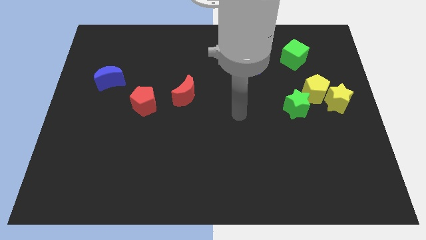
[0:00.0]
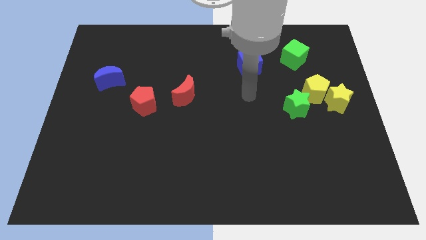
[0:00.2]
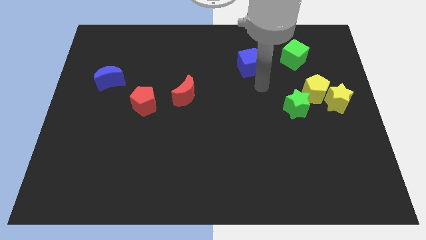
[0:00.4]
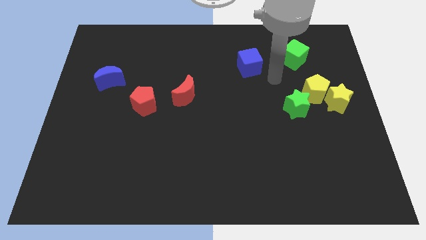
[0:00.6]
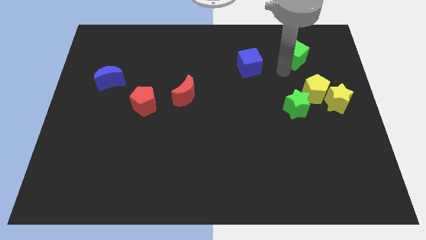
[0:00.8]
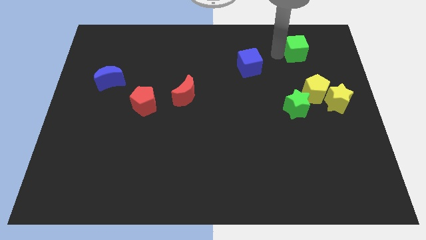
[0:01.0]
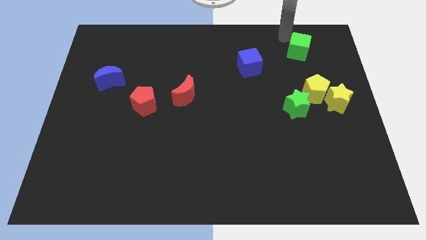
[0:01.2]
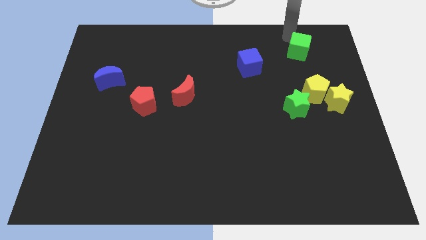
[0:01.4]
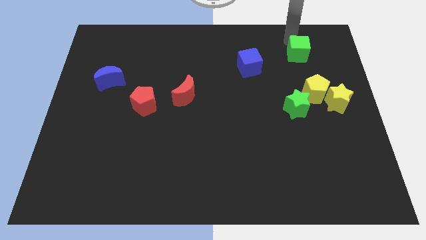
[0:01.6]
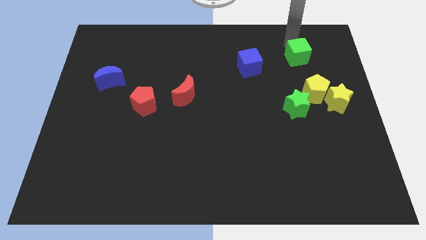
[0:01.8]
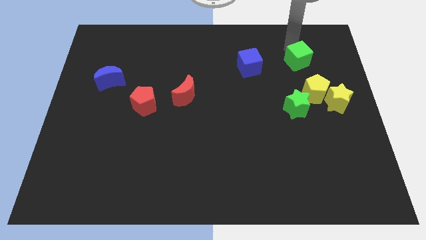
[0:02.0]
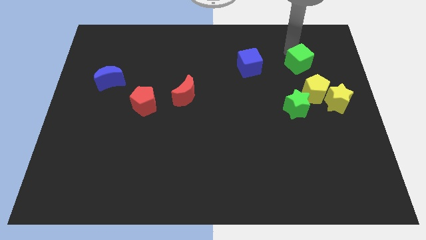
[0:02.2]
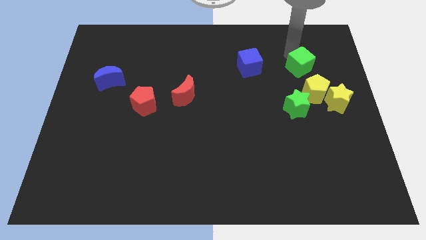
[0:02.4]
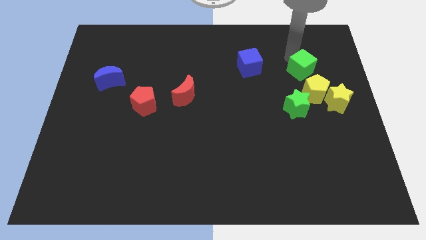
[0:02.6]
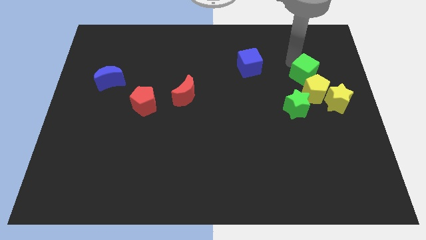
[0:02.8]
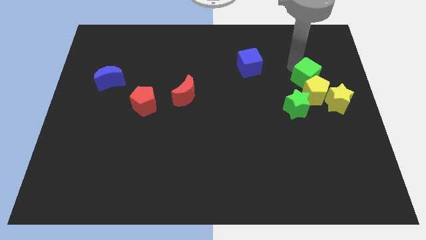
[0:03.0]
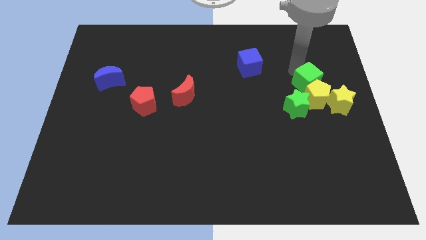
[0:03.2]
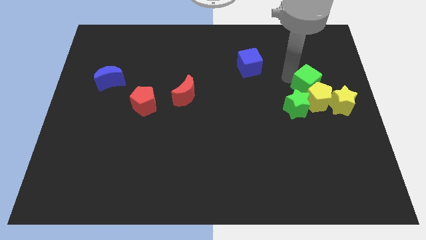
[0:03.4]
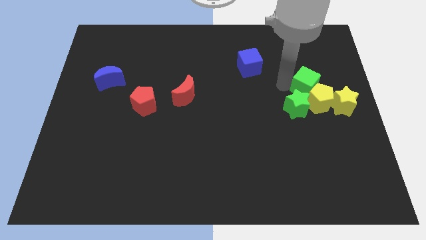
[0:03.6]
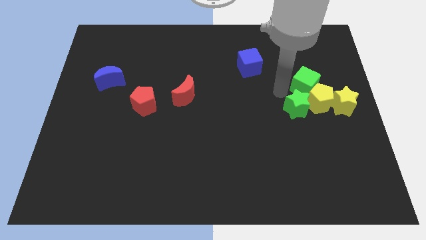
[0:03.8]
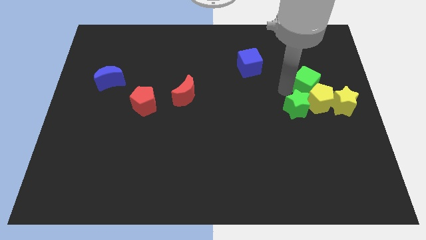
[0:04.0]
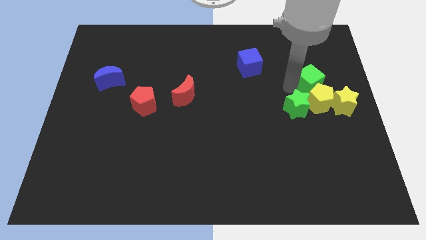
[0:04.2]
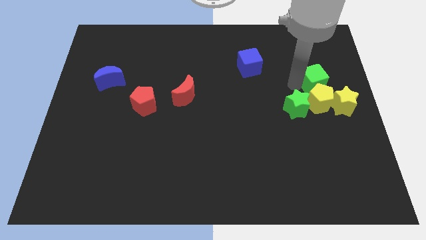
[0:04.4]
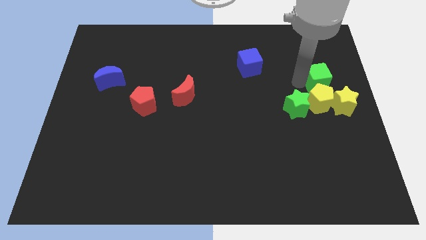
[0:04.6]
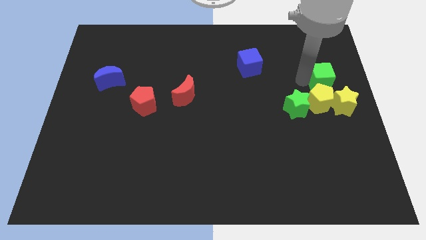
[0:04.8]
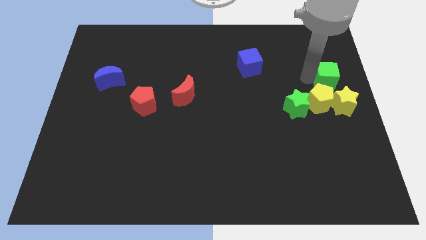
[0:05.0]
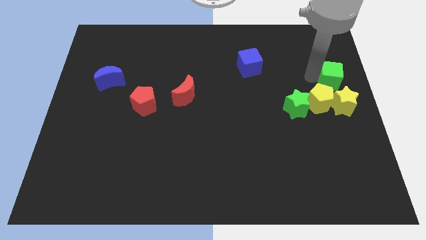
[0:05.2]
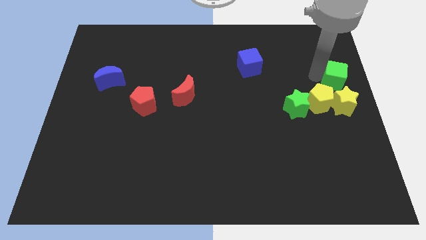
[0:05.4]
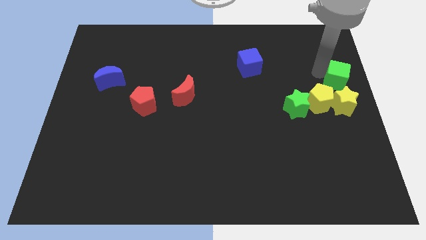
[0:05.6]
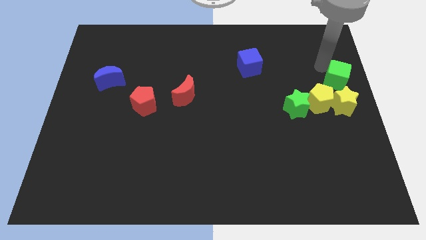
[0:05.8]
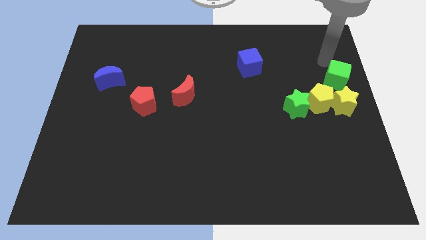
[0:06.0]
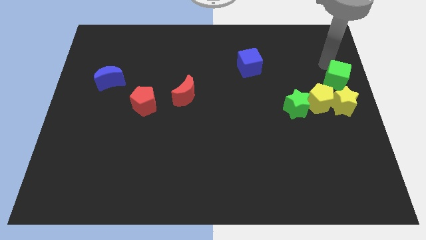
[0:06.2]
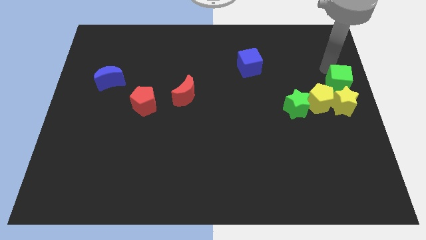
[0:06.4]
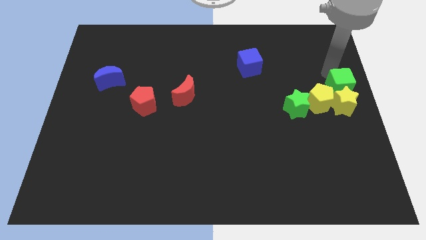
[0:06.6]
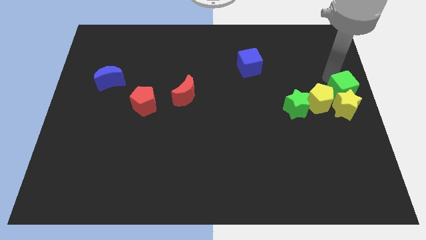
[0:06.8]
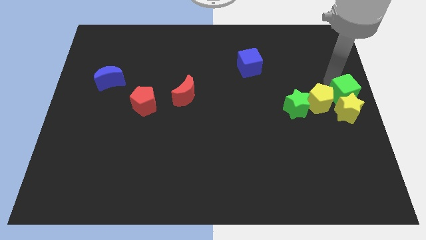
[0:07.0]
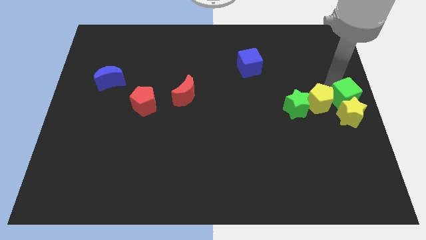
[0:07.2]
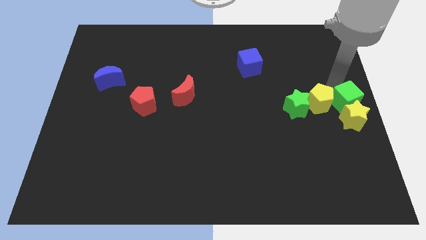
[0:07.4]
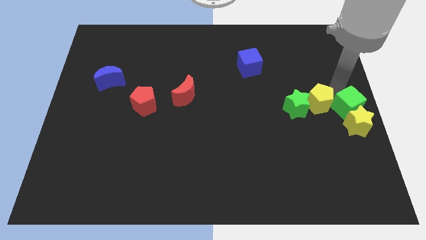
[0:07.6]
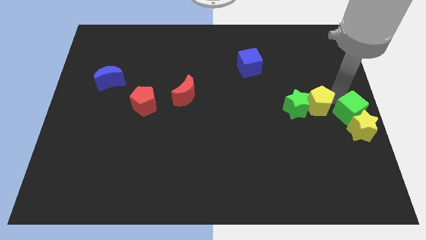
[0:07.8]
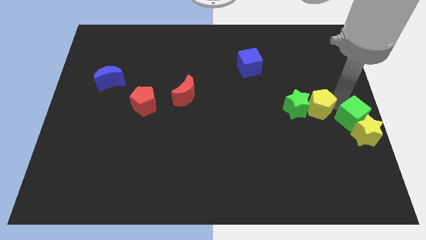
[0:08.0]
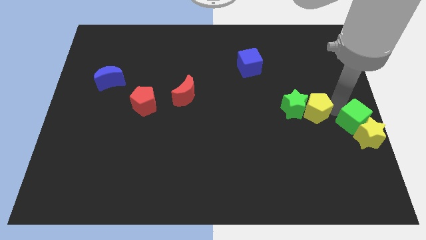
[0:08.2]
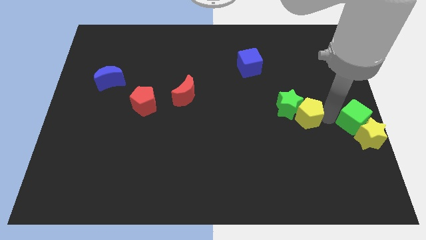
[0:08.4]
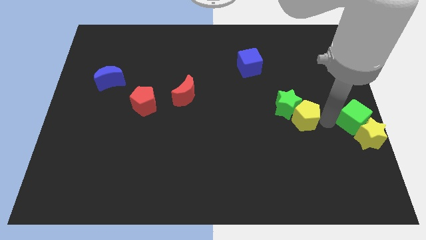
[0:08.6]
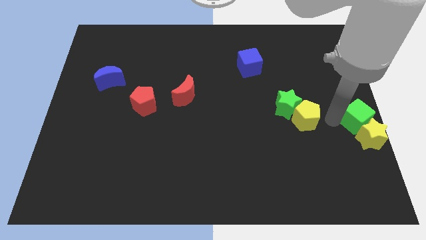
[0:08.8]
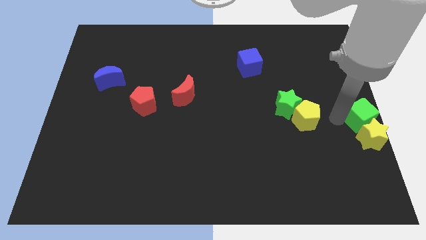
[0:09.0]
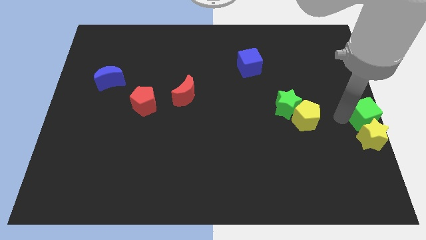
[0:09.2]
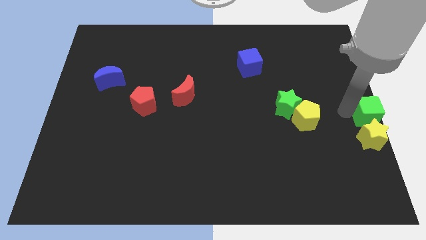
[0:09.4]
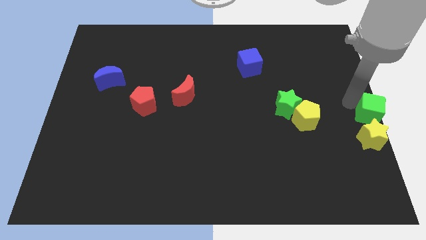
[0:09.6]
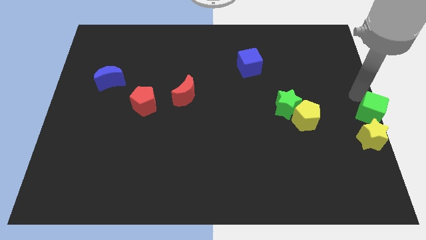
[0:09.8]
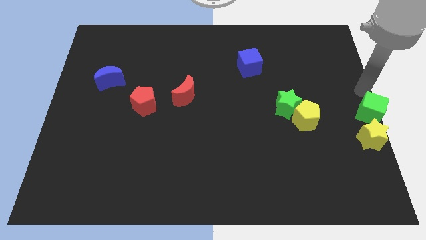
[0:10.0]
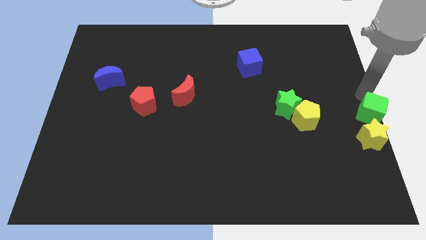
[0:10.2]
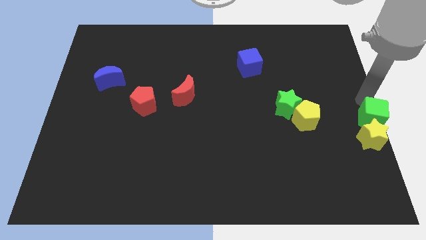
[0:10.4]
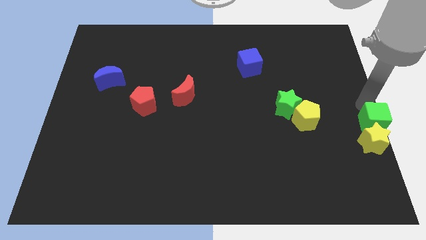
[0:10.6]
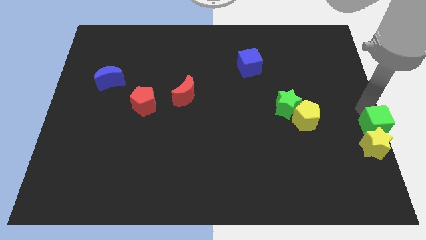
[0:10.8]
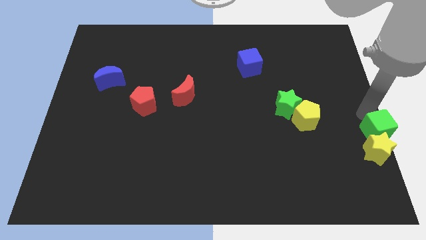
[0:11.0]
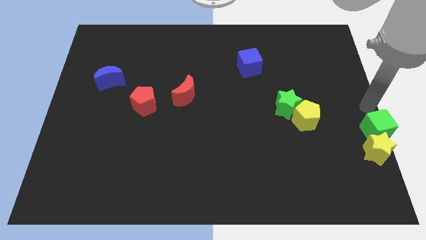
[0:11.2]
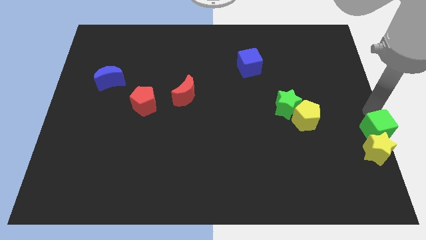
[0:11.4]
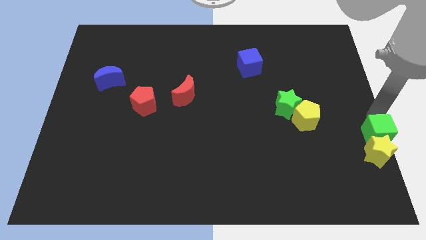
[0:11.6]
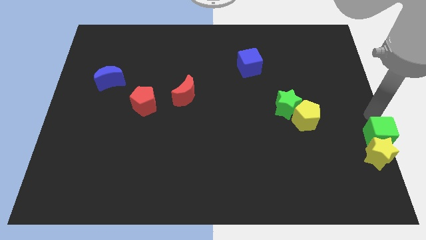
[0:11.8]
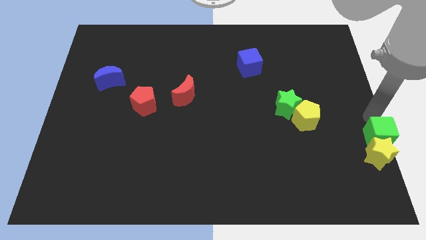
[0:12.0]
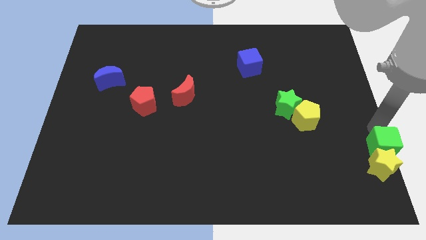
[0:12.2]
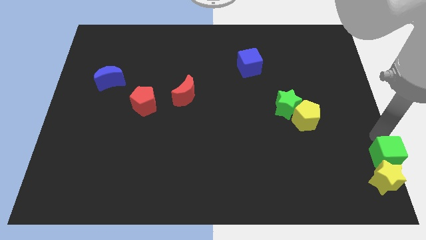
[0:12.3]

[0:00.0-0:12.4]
move the green cube to the lower right corner

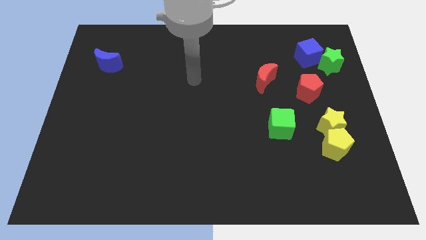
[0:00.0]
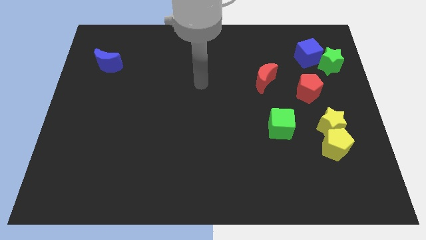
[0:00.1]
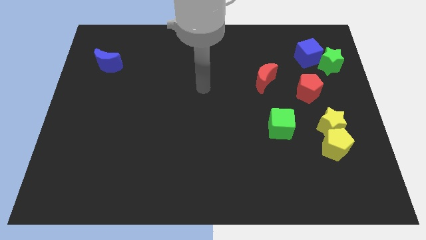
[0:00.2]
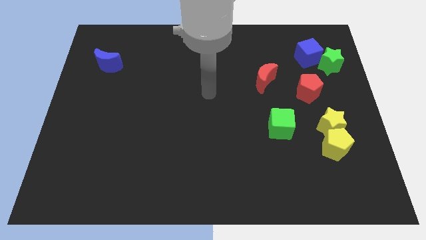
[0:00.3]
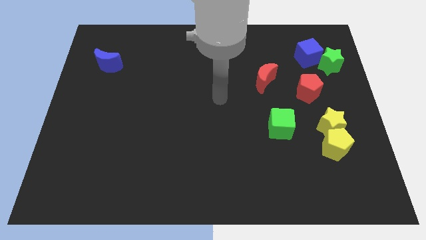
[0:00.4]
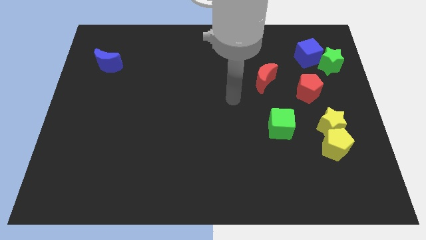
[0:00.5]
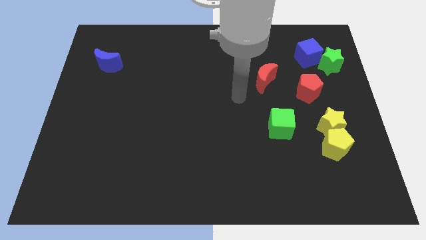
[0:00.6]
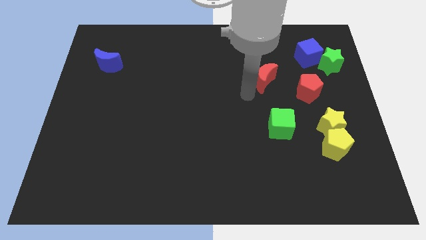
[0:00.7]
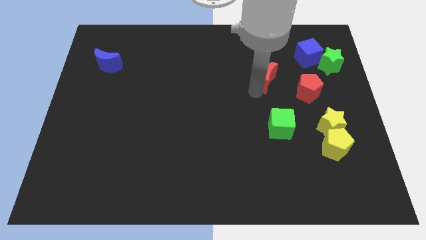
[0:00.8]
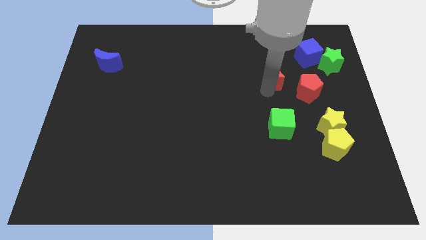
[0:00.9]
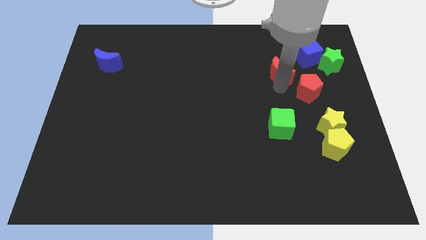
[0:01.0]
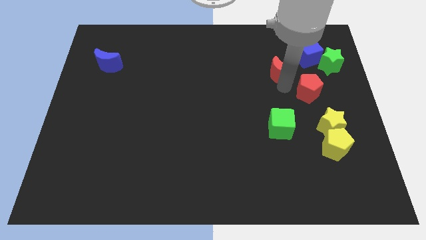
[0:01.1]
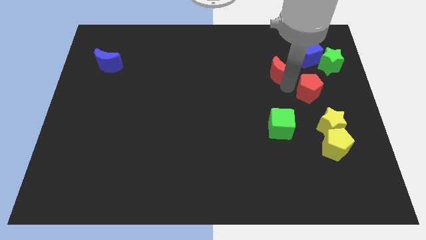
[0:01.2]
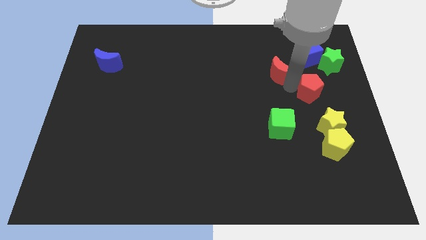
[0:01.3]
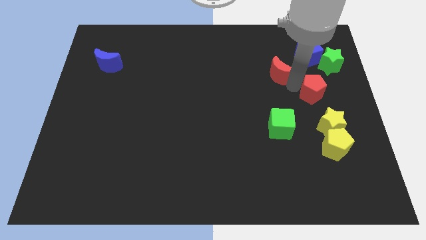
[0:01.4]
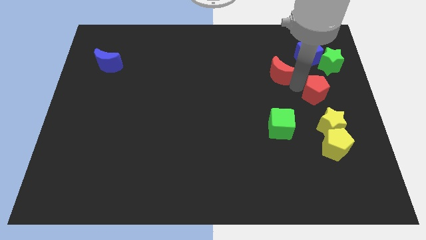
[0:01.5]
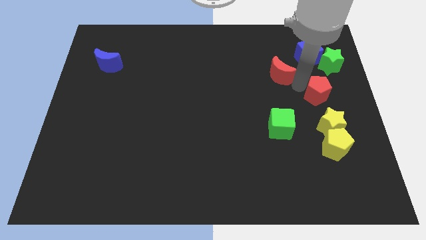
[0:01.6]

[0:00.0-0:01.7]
move the red pentagon to the right side
